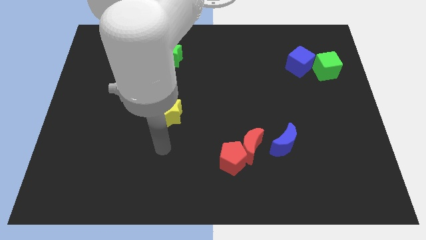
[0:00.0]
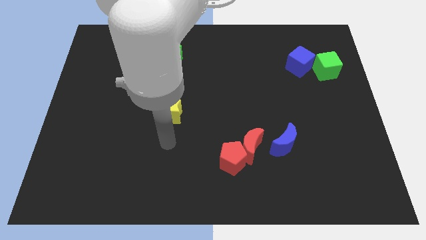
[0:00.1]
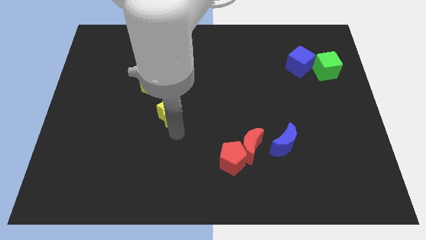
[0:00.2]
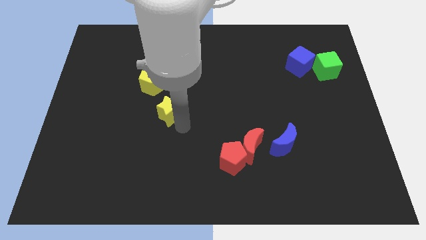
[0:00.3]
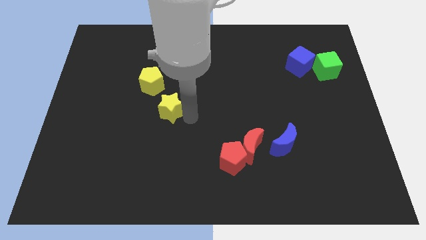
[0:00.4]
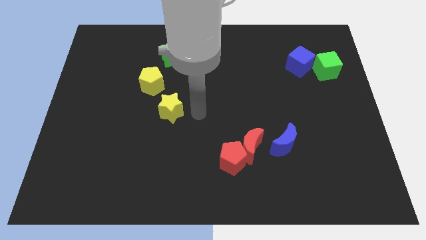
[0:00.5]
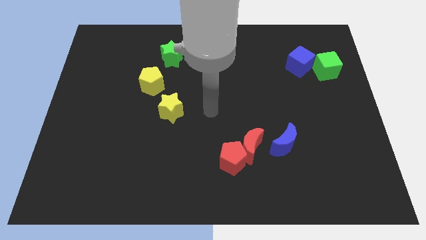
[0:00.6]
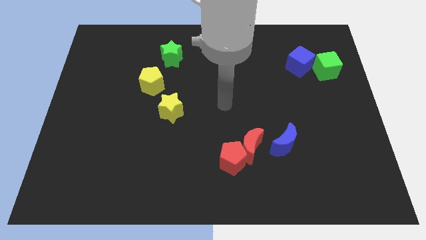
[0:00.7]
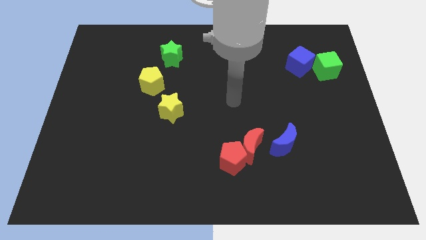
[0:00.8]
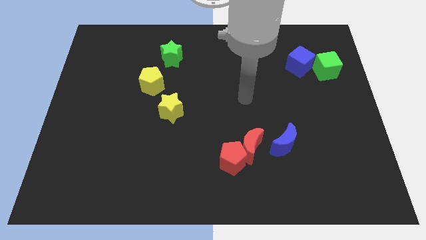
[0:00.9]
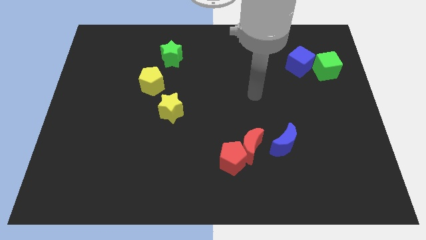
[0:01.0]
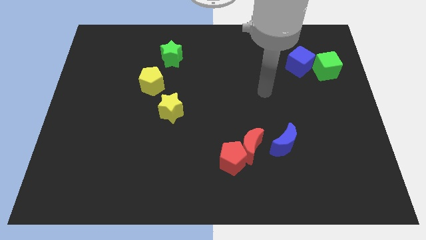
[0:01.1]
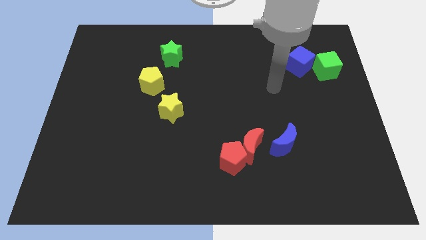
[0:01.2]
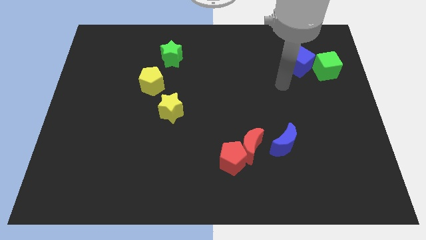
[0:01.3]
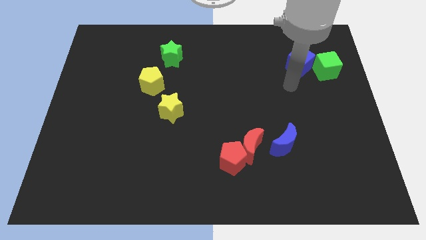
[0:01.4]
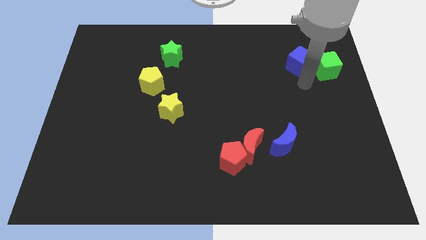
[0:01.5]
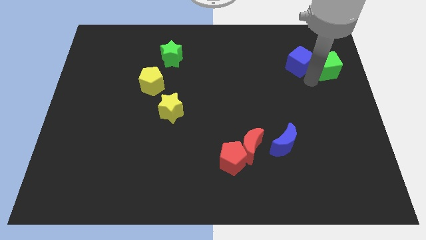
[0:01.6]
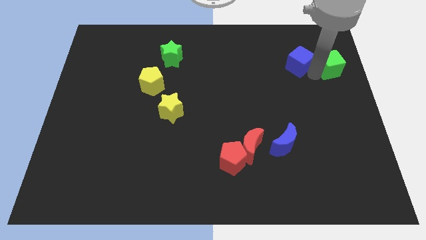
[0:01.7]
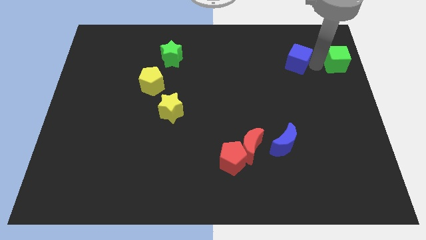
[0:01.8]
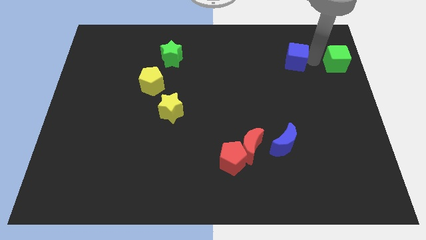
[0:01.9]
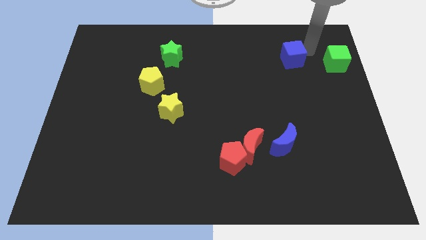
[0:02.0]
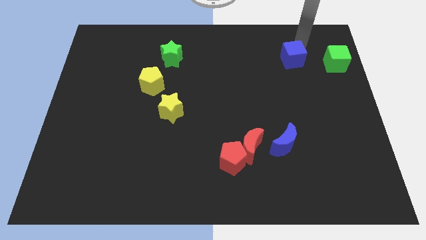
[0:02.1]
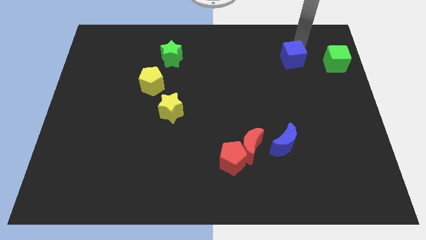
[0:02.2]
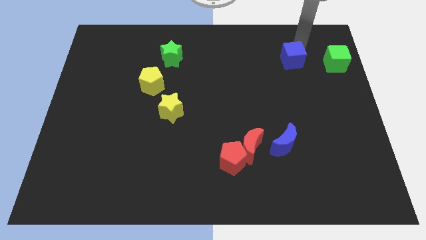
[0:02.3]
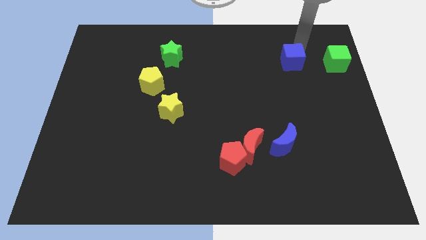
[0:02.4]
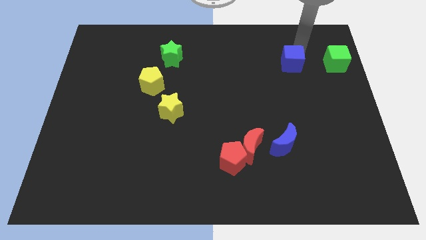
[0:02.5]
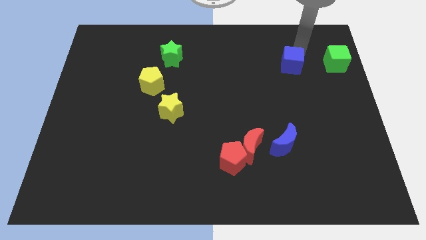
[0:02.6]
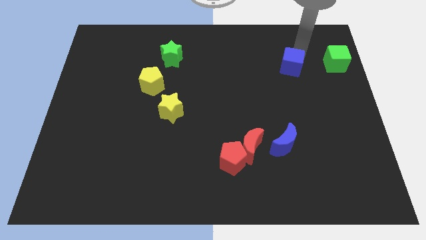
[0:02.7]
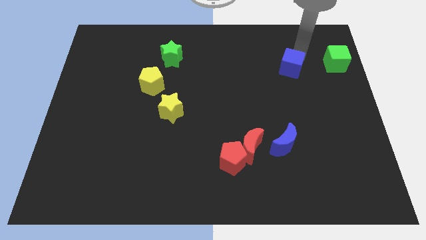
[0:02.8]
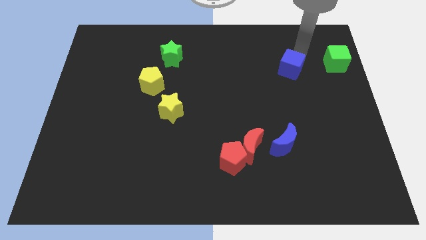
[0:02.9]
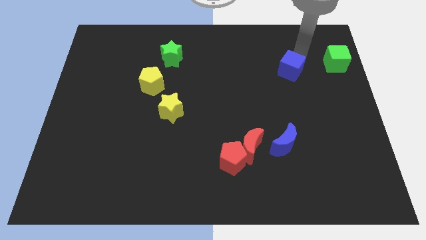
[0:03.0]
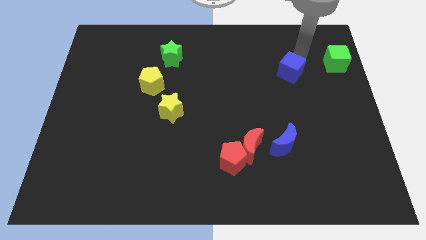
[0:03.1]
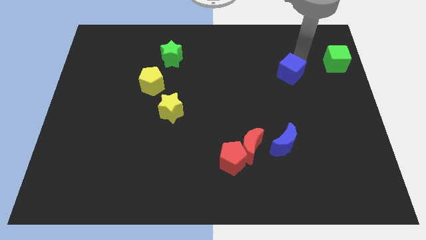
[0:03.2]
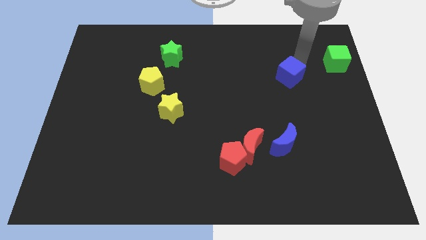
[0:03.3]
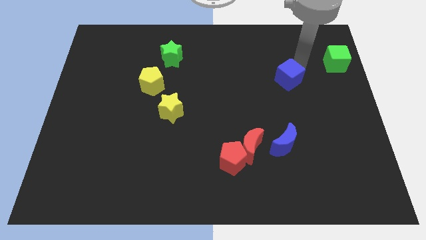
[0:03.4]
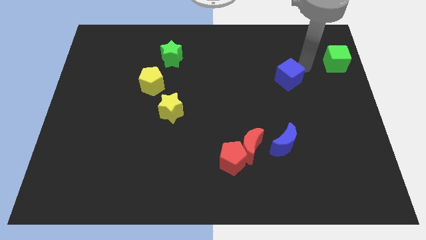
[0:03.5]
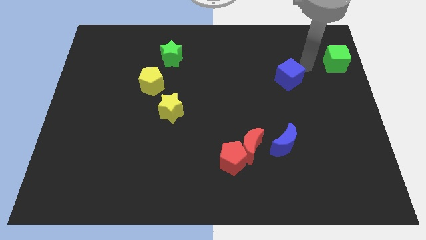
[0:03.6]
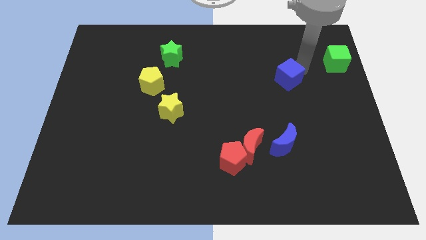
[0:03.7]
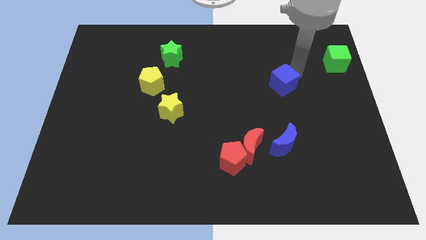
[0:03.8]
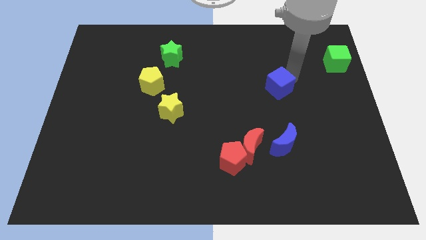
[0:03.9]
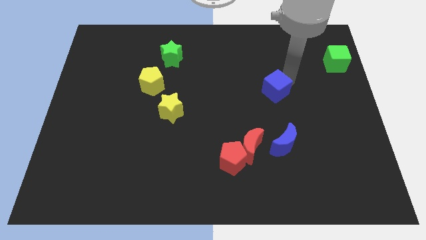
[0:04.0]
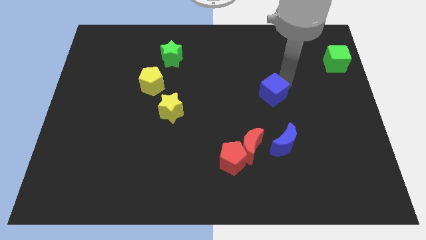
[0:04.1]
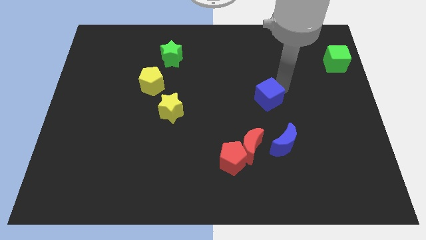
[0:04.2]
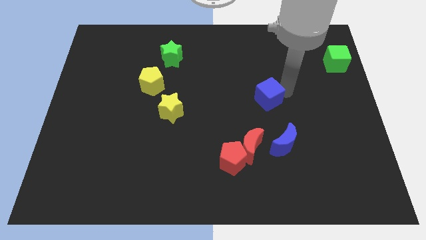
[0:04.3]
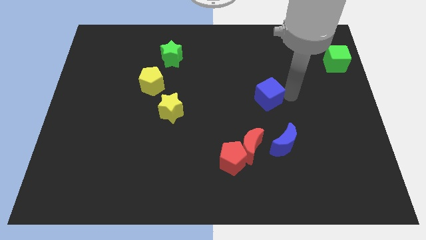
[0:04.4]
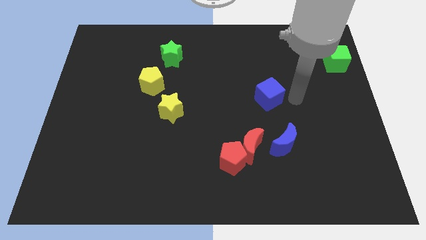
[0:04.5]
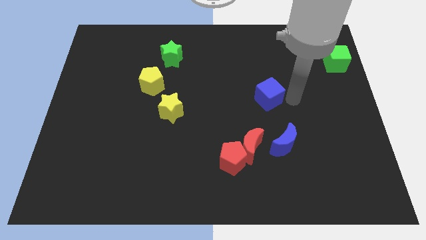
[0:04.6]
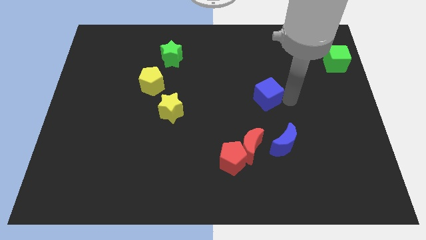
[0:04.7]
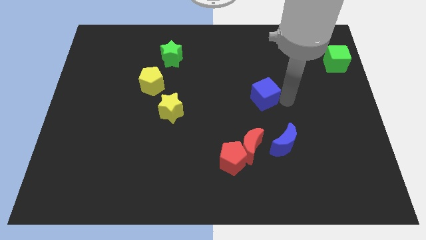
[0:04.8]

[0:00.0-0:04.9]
push the blue cube to the middle

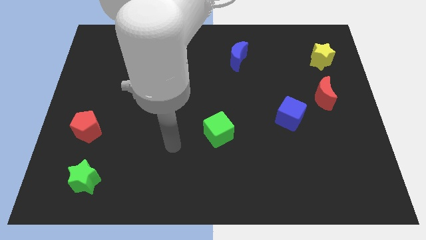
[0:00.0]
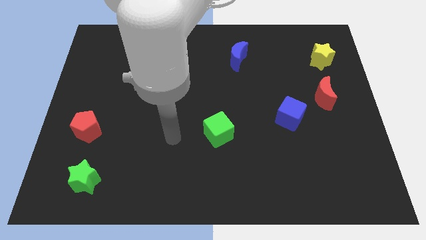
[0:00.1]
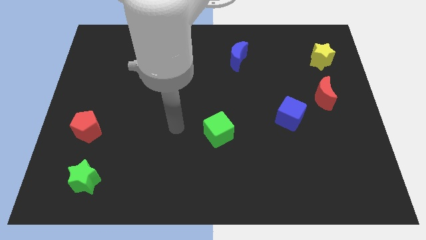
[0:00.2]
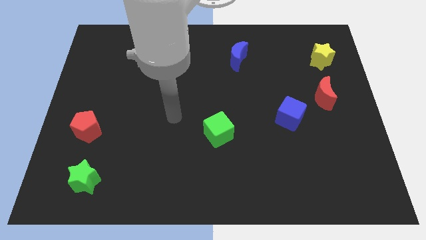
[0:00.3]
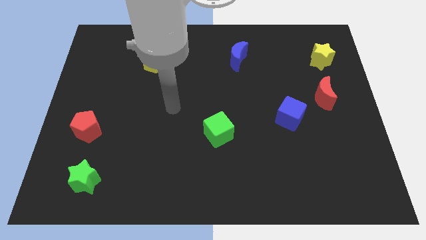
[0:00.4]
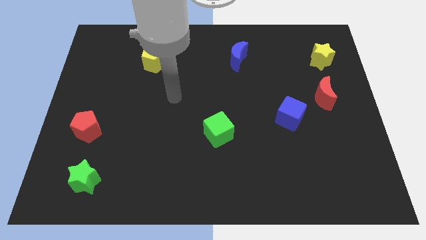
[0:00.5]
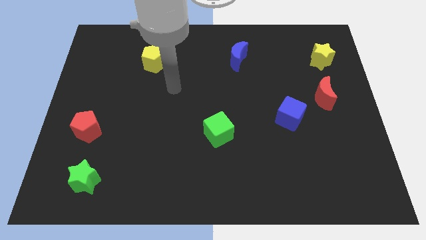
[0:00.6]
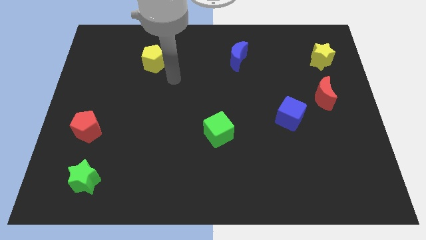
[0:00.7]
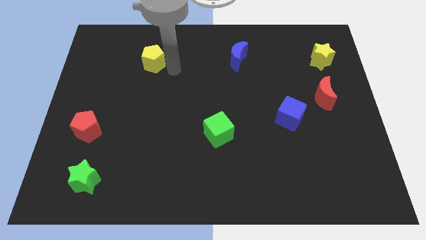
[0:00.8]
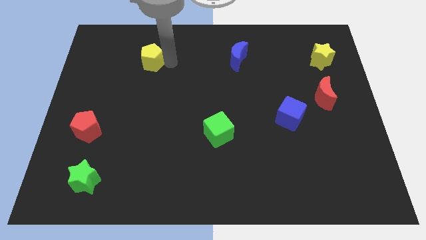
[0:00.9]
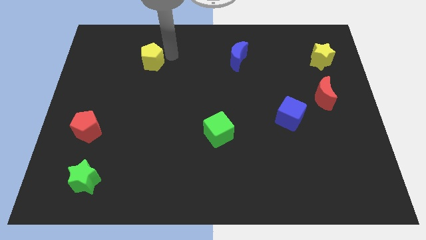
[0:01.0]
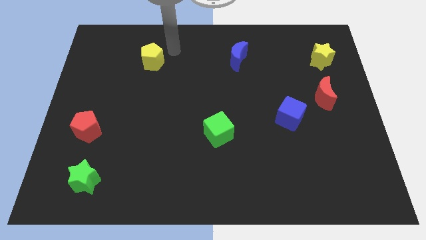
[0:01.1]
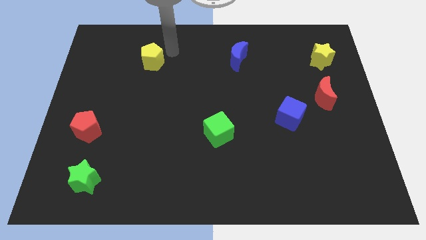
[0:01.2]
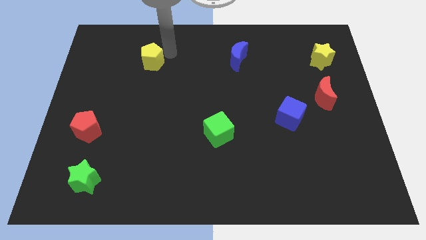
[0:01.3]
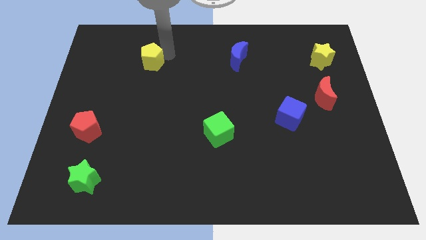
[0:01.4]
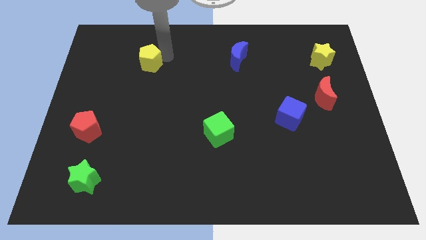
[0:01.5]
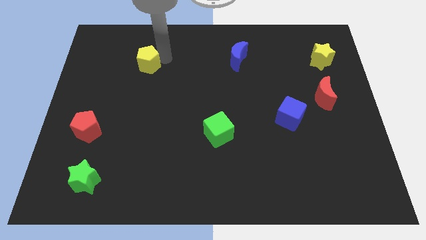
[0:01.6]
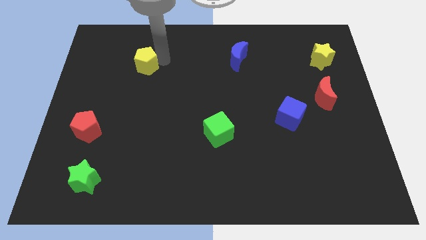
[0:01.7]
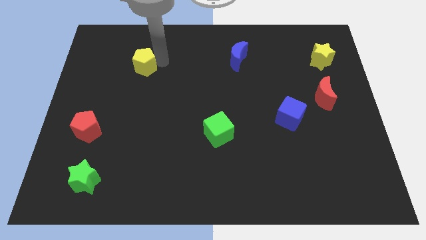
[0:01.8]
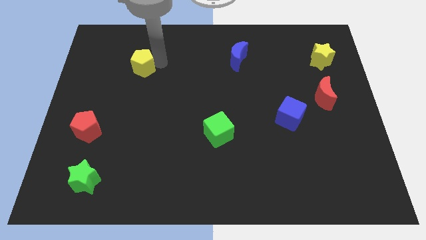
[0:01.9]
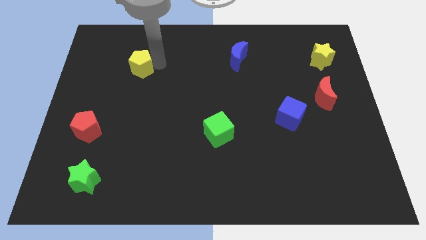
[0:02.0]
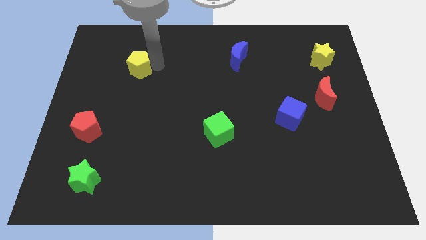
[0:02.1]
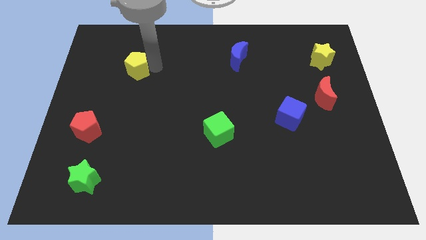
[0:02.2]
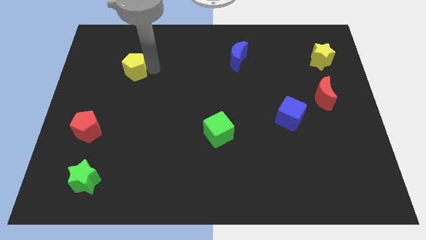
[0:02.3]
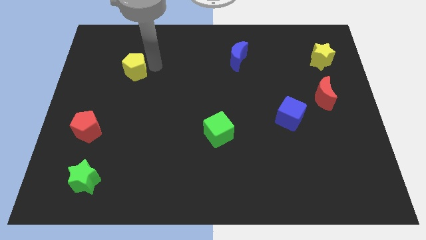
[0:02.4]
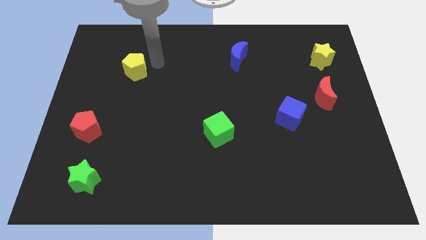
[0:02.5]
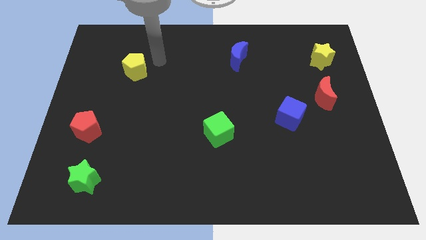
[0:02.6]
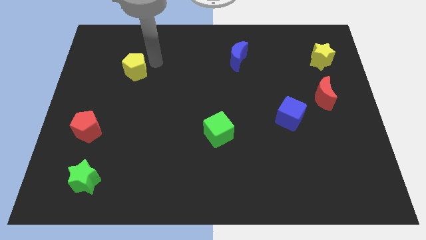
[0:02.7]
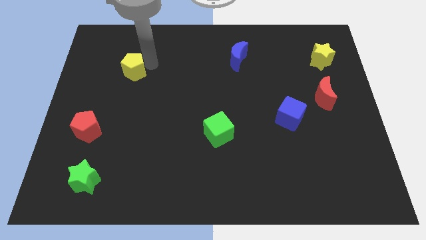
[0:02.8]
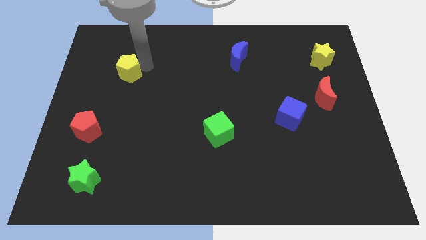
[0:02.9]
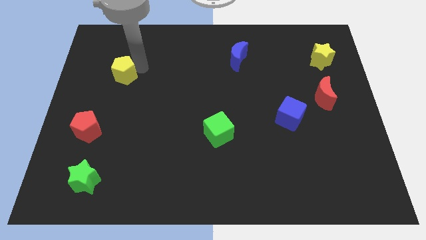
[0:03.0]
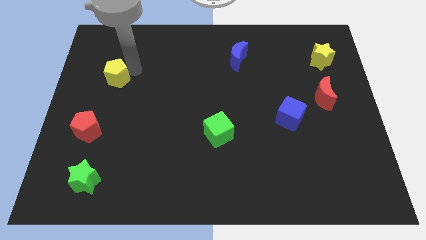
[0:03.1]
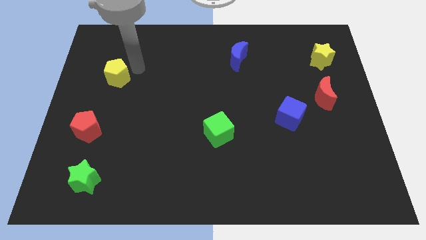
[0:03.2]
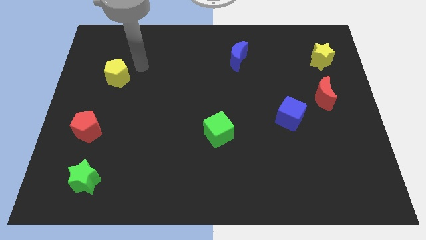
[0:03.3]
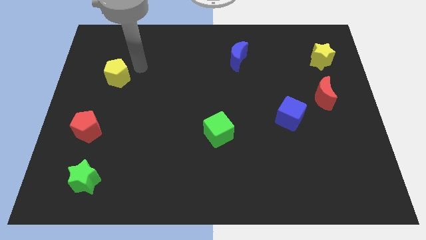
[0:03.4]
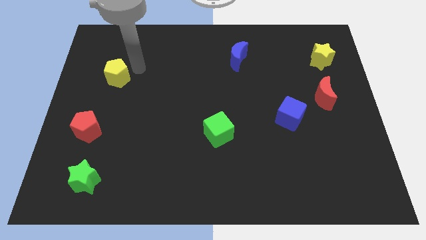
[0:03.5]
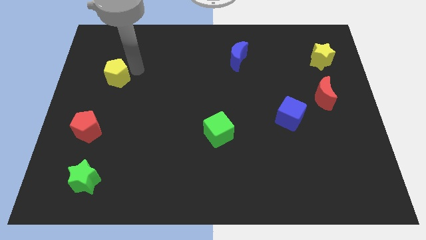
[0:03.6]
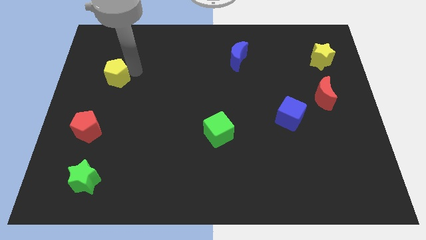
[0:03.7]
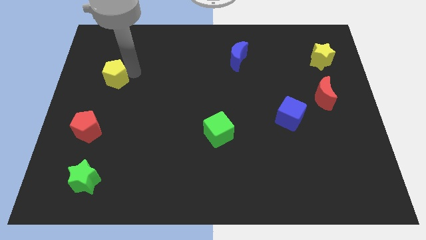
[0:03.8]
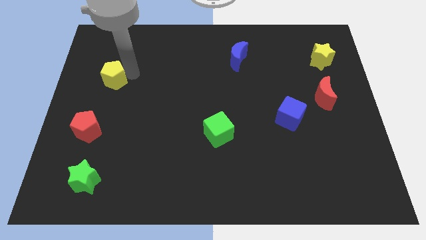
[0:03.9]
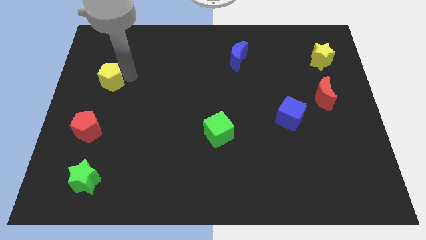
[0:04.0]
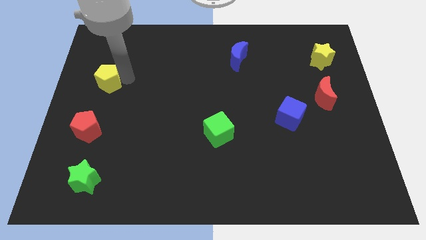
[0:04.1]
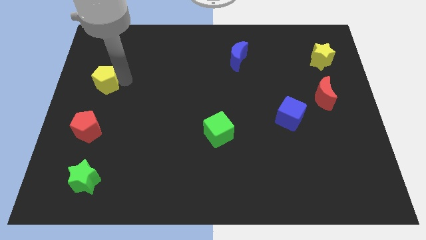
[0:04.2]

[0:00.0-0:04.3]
put the yellow pentagon to the center left
